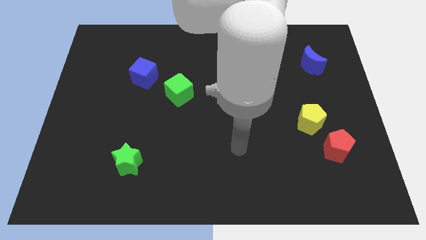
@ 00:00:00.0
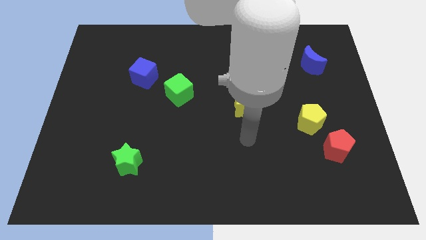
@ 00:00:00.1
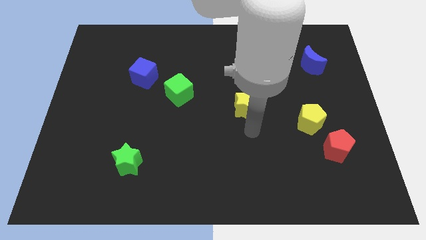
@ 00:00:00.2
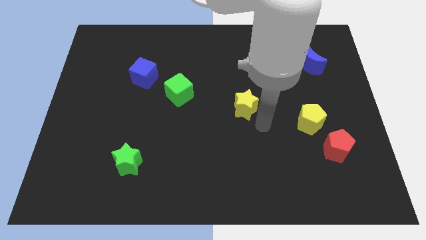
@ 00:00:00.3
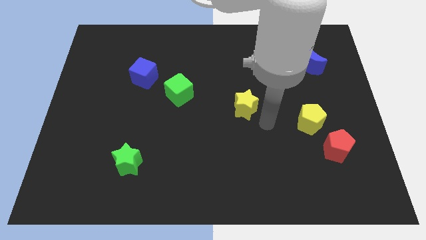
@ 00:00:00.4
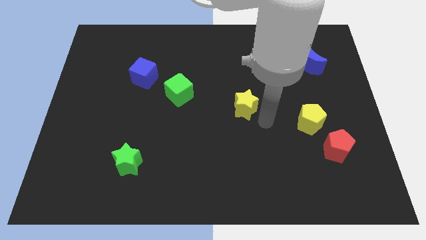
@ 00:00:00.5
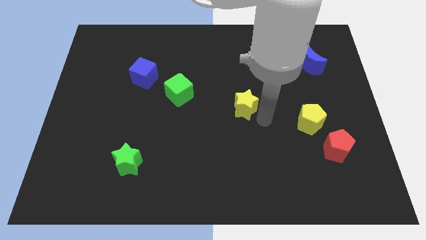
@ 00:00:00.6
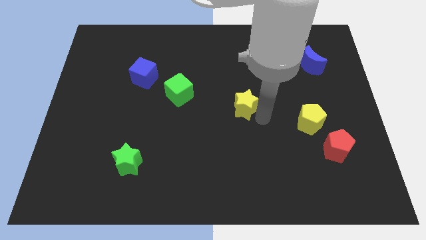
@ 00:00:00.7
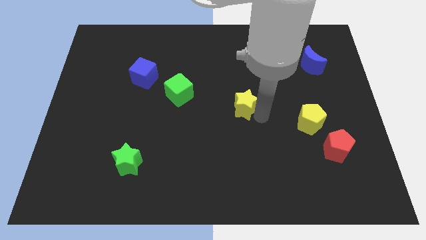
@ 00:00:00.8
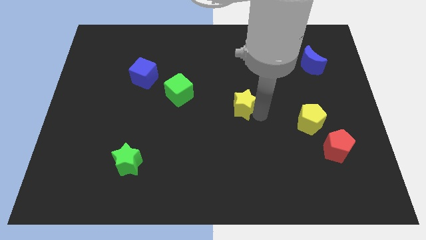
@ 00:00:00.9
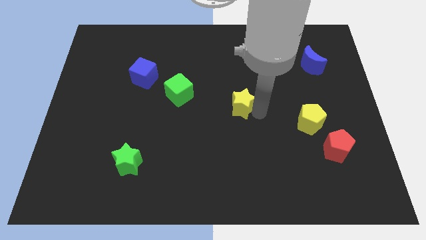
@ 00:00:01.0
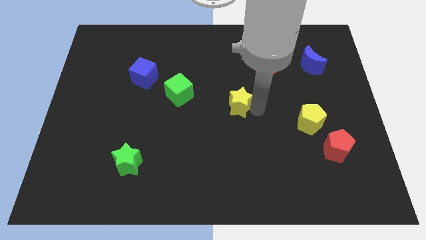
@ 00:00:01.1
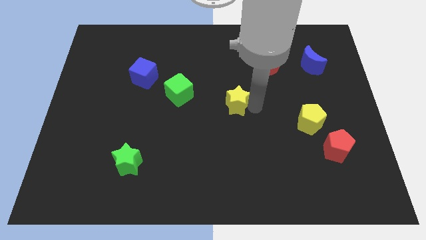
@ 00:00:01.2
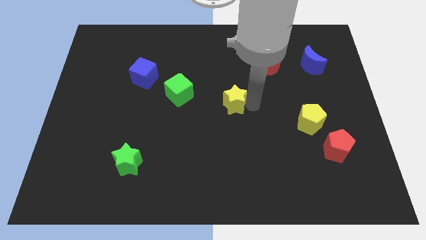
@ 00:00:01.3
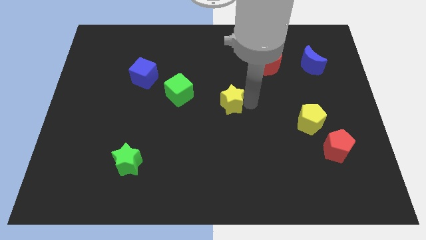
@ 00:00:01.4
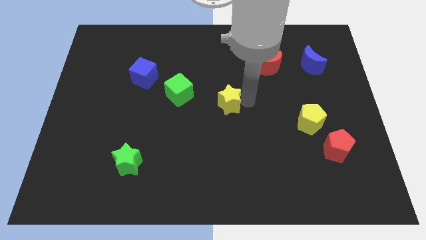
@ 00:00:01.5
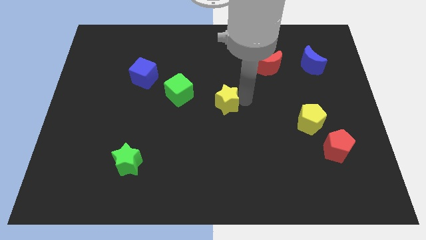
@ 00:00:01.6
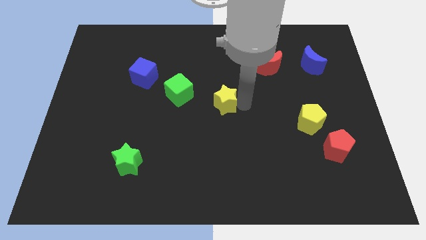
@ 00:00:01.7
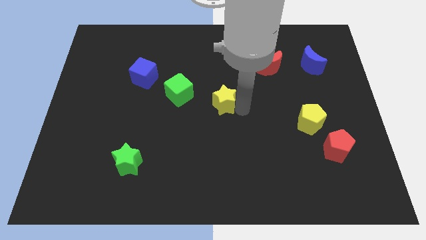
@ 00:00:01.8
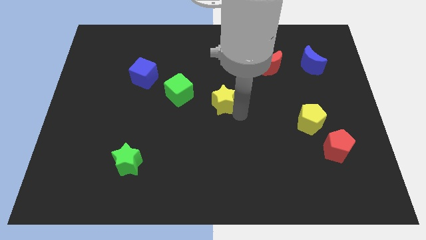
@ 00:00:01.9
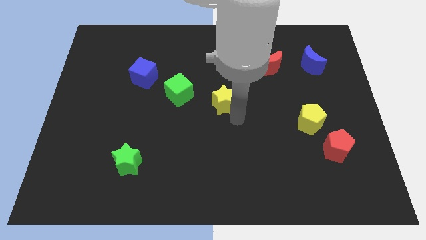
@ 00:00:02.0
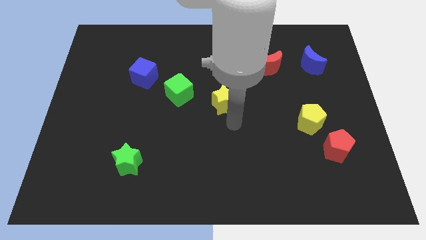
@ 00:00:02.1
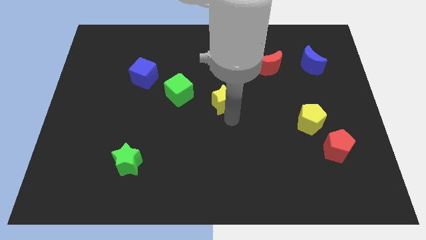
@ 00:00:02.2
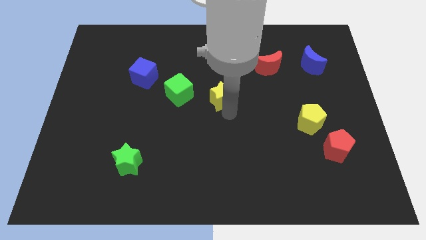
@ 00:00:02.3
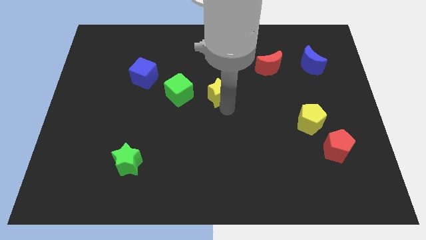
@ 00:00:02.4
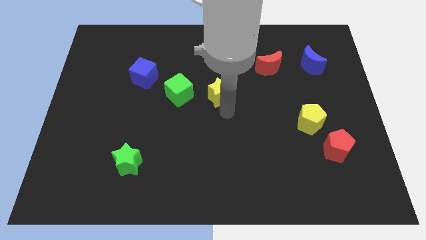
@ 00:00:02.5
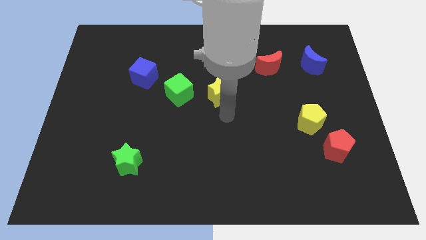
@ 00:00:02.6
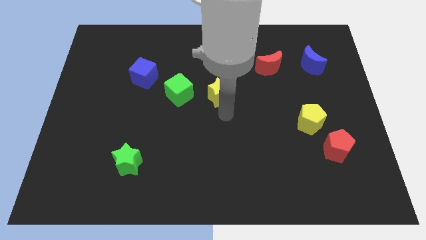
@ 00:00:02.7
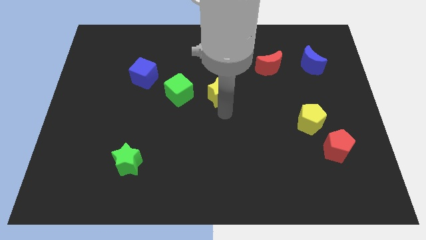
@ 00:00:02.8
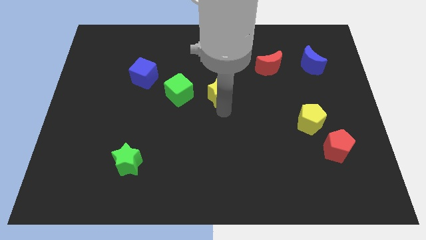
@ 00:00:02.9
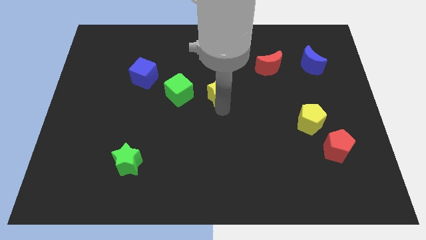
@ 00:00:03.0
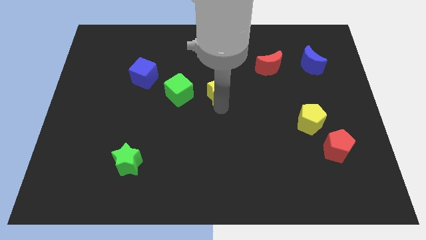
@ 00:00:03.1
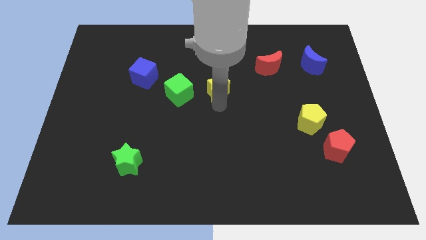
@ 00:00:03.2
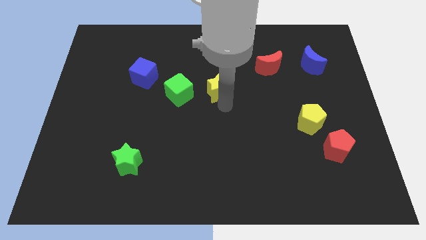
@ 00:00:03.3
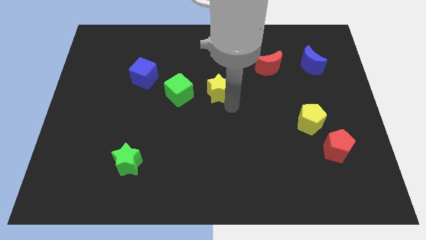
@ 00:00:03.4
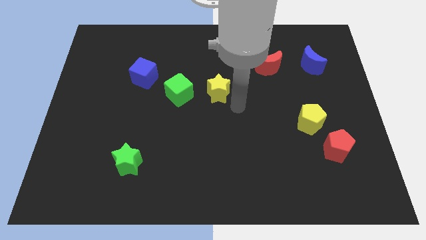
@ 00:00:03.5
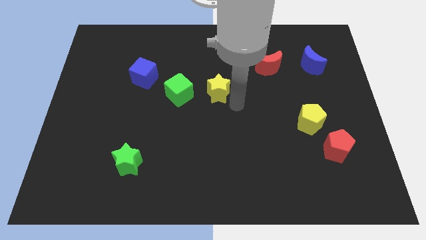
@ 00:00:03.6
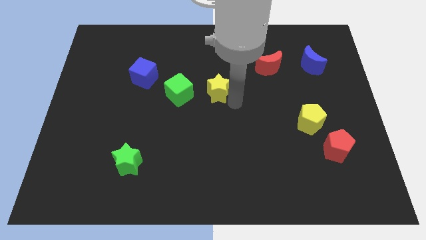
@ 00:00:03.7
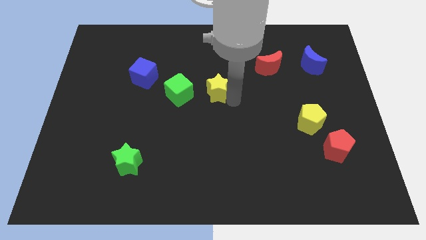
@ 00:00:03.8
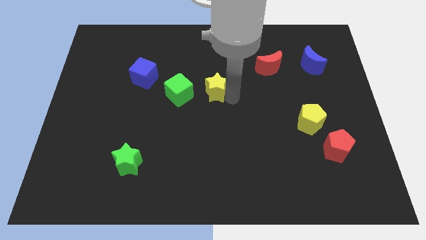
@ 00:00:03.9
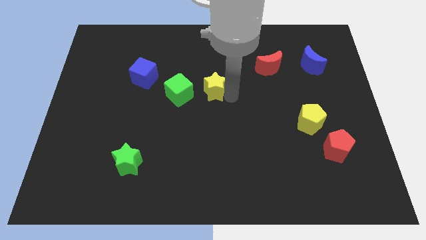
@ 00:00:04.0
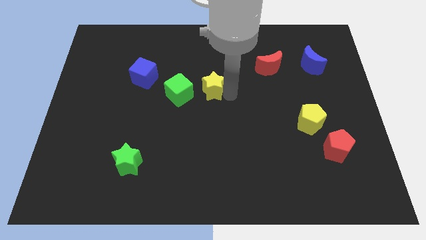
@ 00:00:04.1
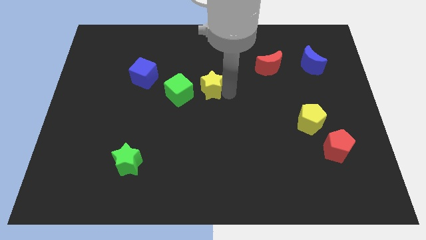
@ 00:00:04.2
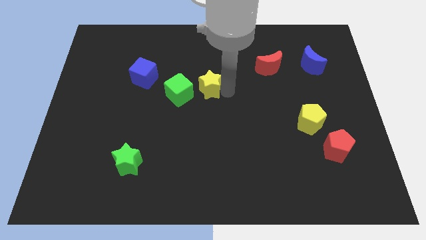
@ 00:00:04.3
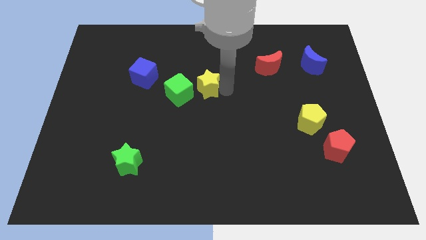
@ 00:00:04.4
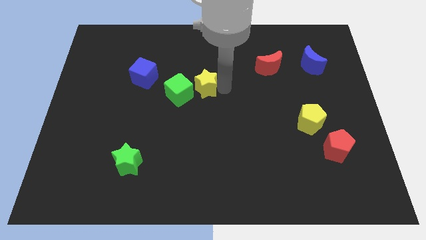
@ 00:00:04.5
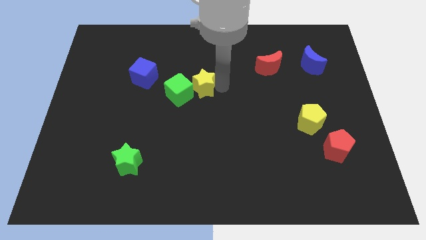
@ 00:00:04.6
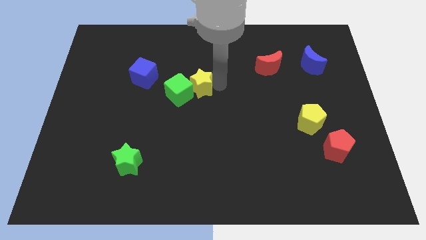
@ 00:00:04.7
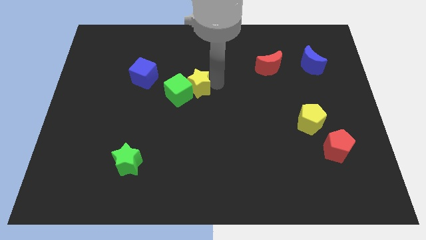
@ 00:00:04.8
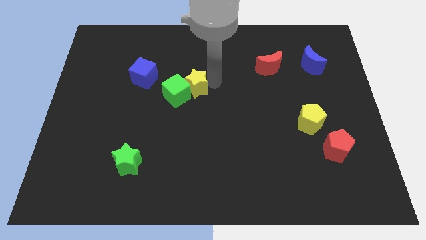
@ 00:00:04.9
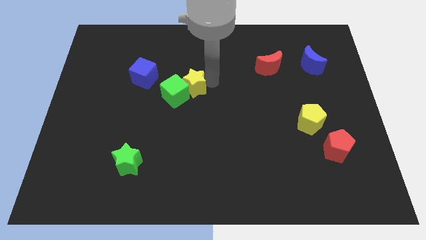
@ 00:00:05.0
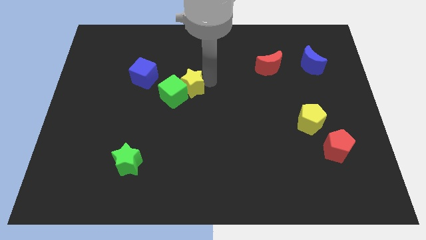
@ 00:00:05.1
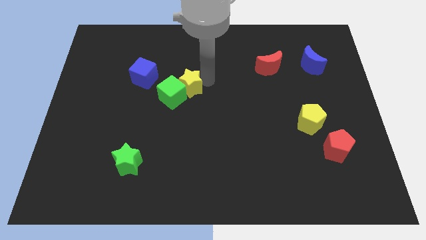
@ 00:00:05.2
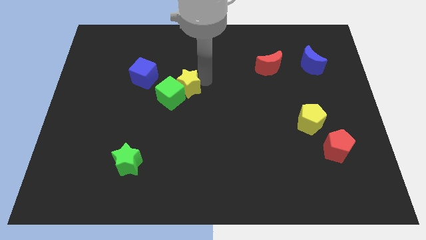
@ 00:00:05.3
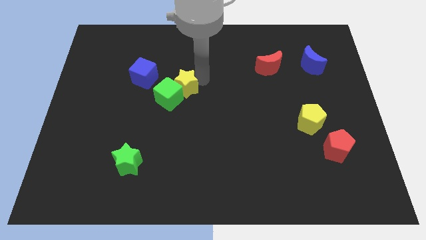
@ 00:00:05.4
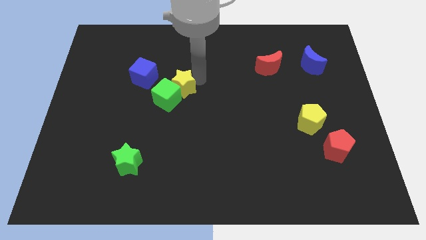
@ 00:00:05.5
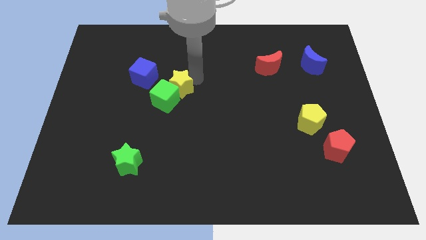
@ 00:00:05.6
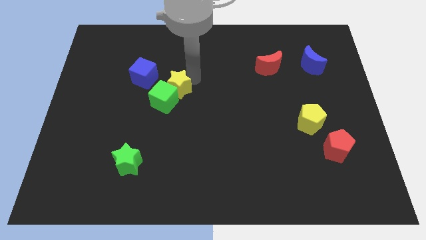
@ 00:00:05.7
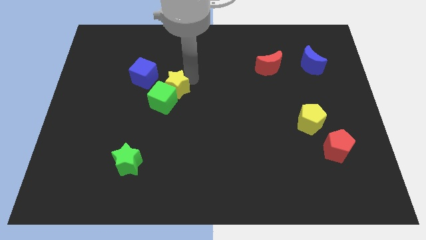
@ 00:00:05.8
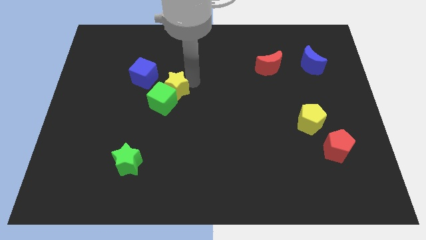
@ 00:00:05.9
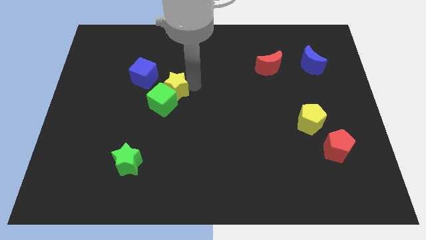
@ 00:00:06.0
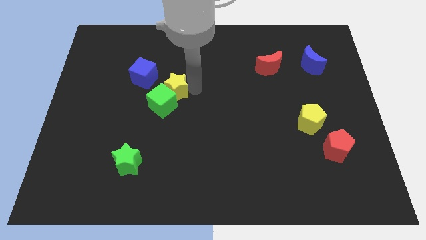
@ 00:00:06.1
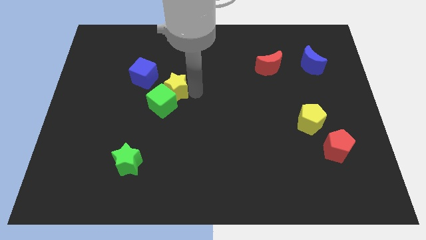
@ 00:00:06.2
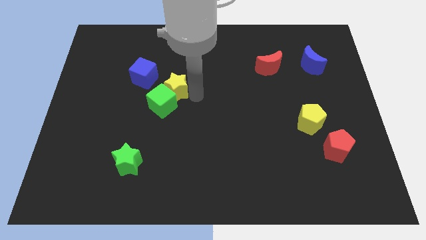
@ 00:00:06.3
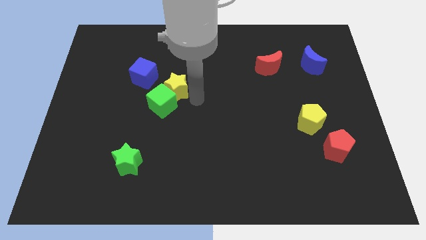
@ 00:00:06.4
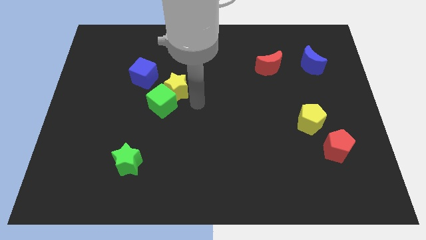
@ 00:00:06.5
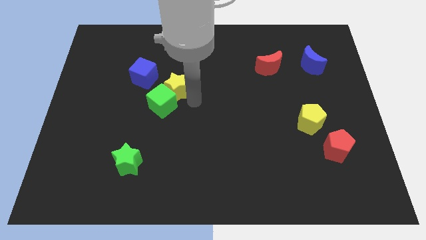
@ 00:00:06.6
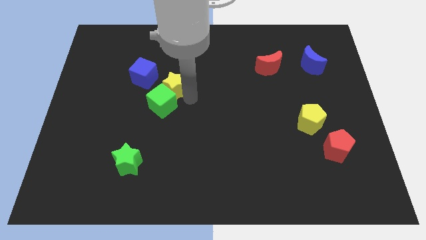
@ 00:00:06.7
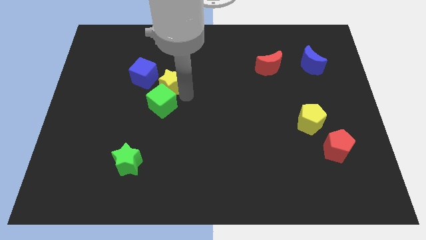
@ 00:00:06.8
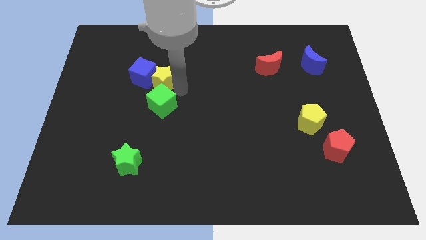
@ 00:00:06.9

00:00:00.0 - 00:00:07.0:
put the yellow star next to the blue cube
